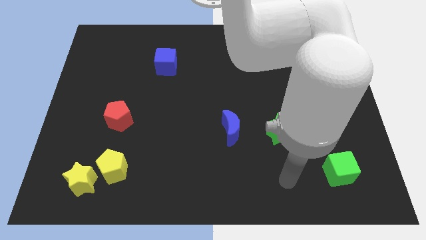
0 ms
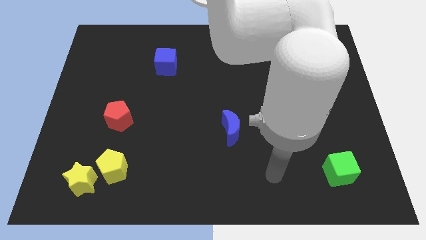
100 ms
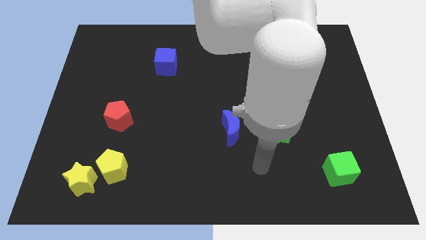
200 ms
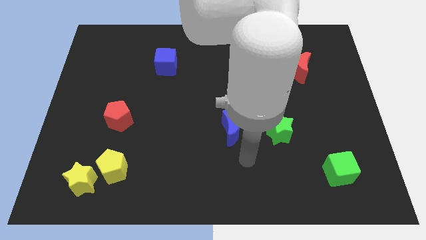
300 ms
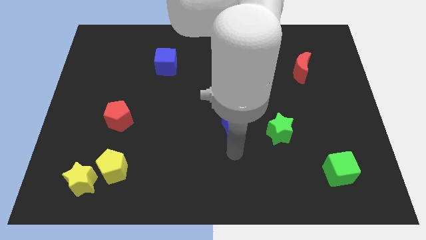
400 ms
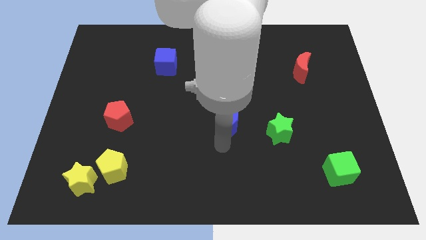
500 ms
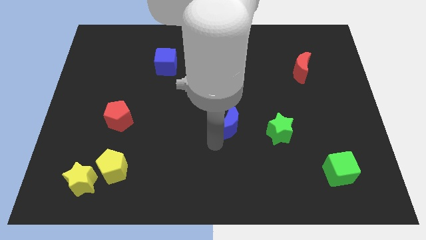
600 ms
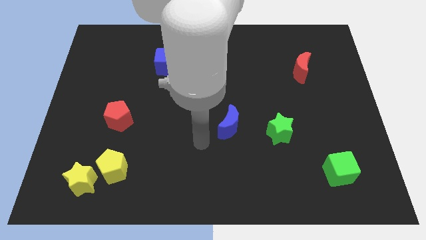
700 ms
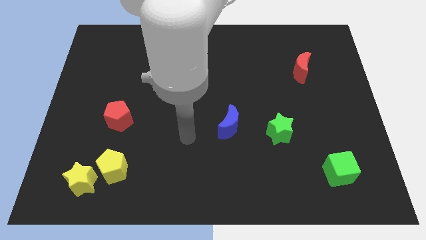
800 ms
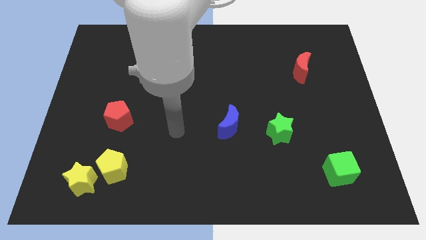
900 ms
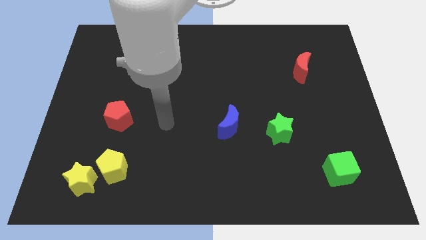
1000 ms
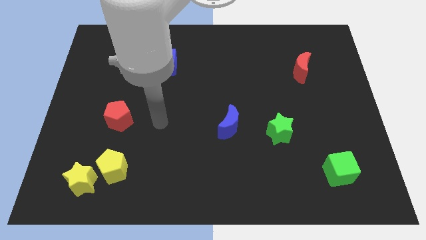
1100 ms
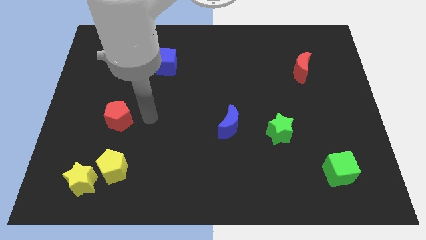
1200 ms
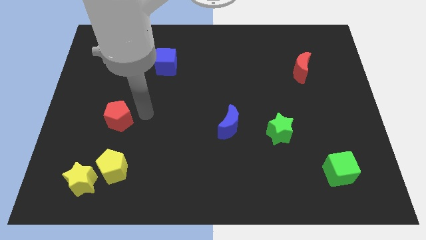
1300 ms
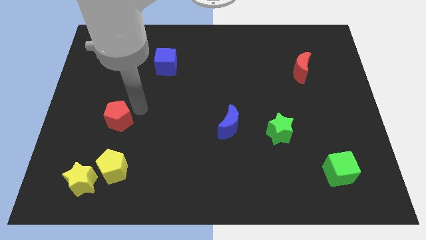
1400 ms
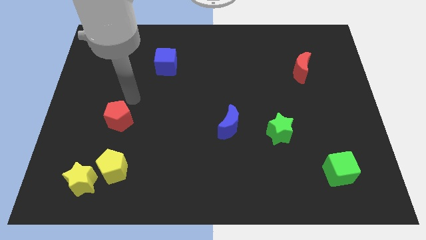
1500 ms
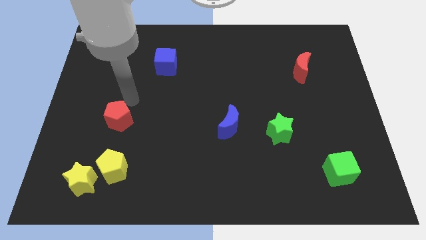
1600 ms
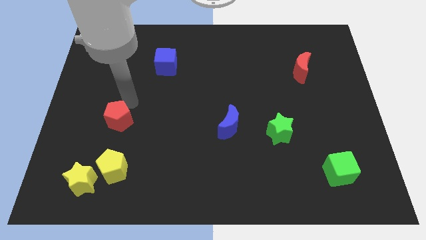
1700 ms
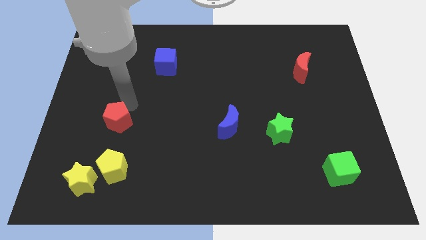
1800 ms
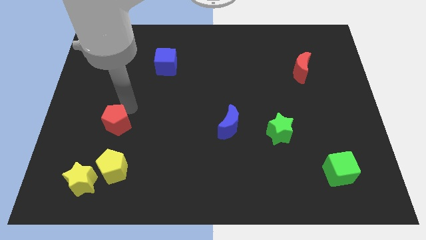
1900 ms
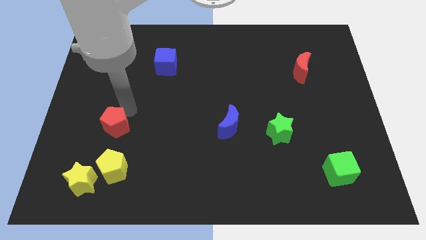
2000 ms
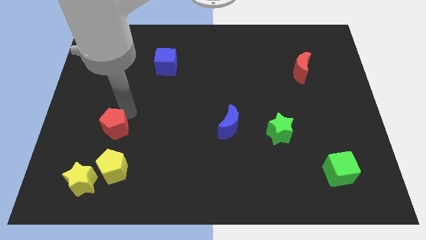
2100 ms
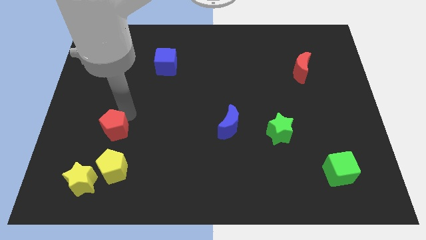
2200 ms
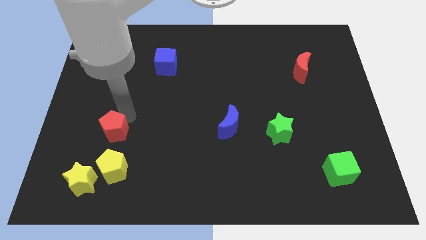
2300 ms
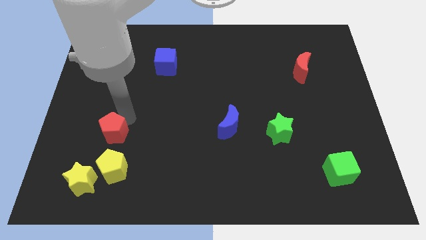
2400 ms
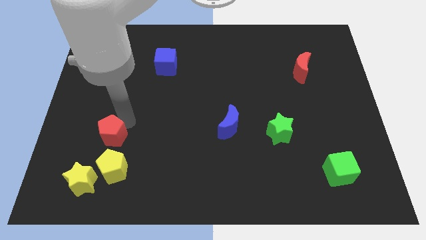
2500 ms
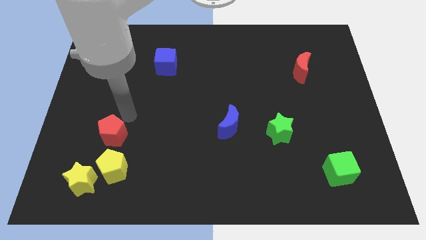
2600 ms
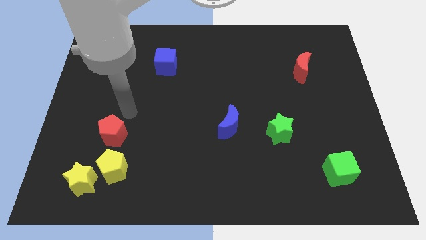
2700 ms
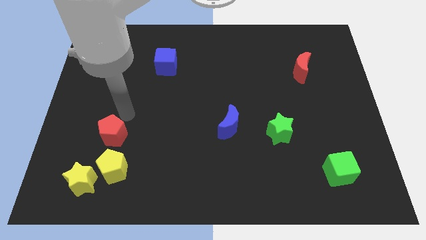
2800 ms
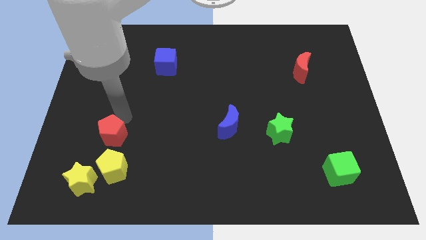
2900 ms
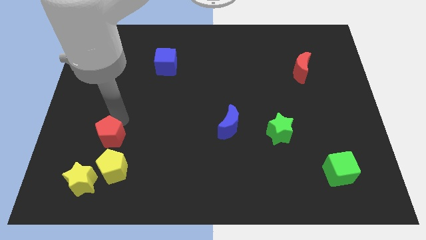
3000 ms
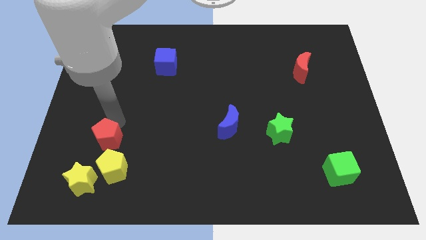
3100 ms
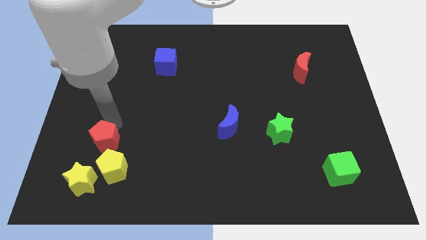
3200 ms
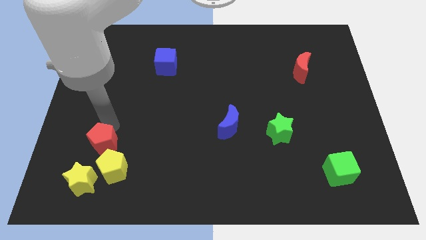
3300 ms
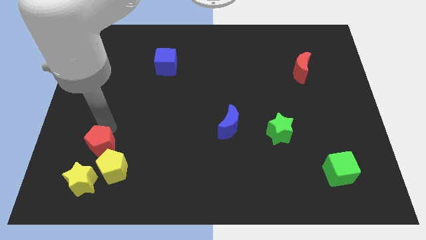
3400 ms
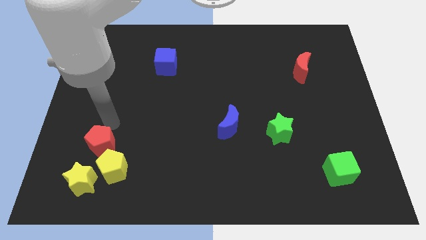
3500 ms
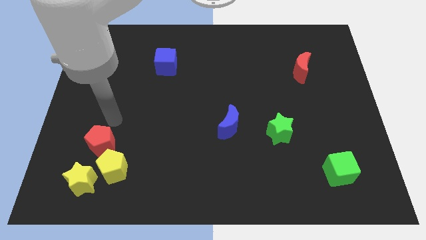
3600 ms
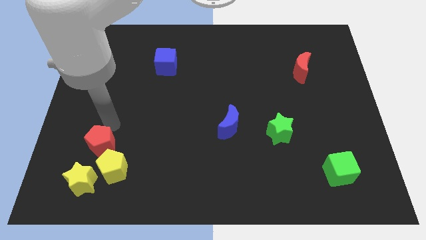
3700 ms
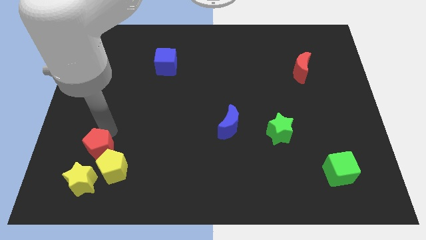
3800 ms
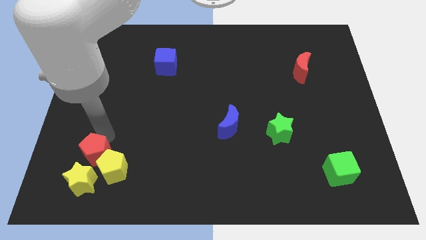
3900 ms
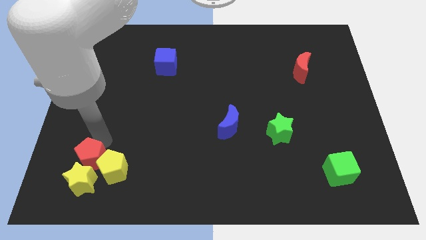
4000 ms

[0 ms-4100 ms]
push the red pentagon to the yellow star

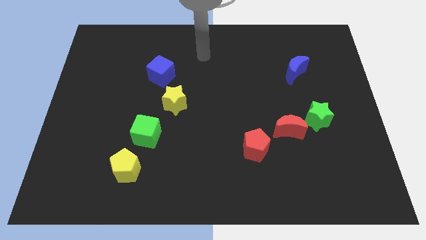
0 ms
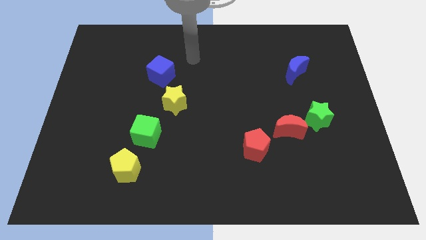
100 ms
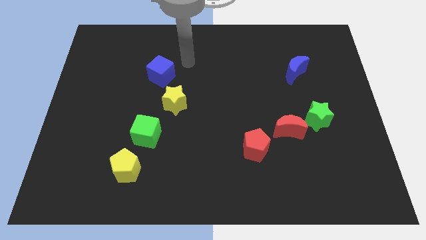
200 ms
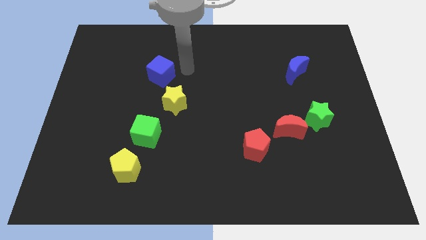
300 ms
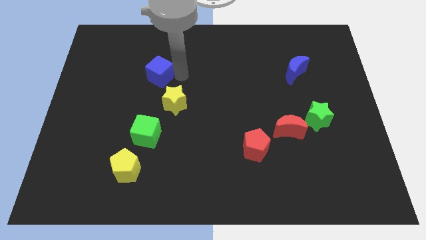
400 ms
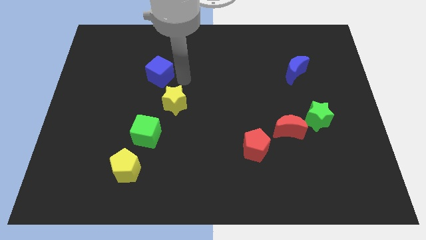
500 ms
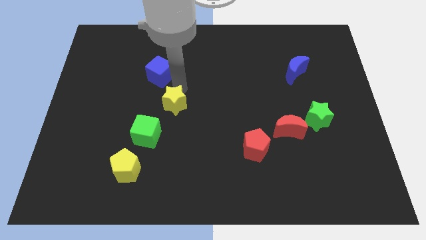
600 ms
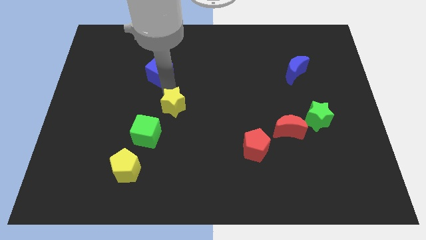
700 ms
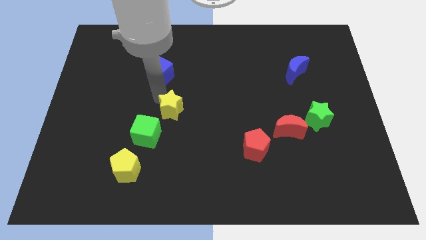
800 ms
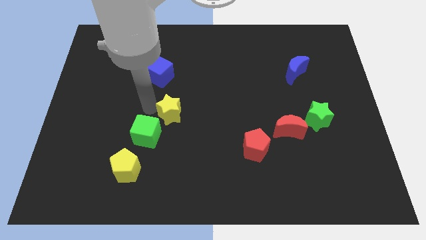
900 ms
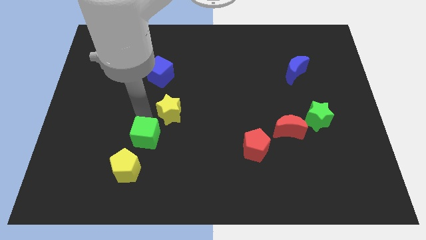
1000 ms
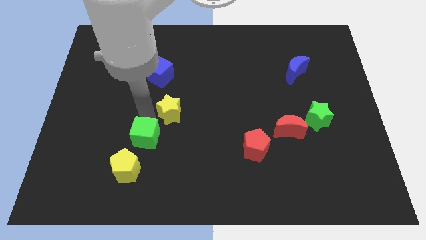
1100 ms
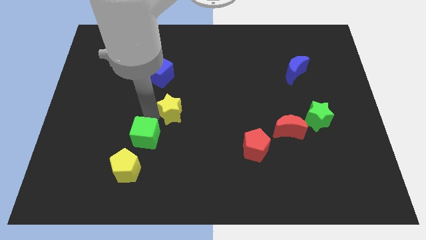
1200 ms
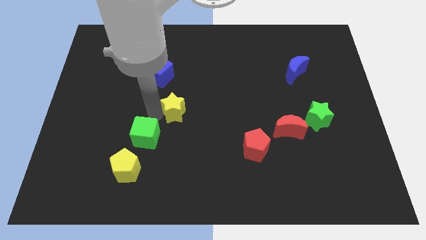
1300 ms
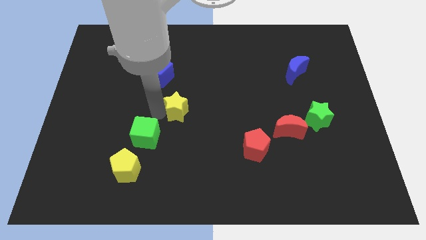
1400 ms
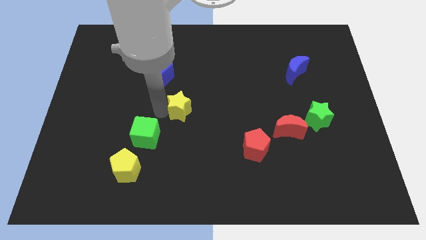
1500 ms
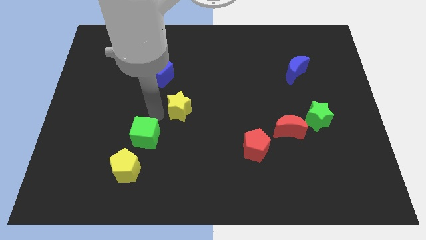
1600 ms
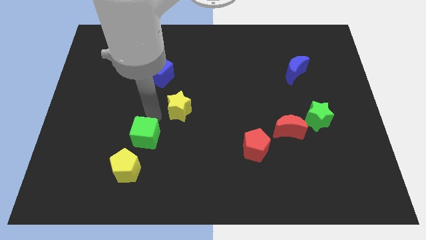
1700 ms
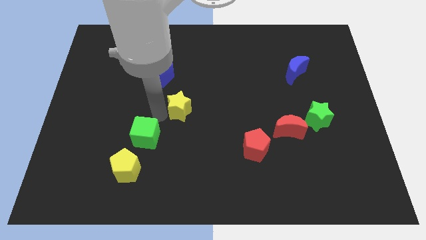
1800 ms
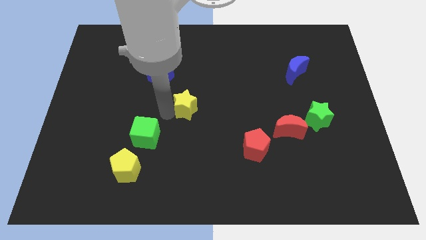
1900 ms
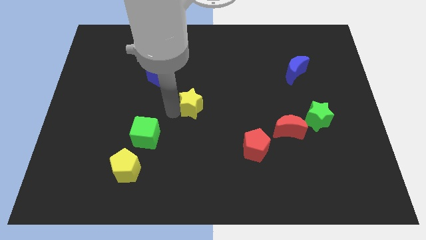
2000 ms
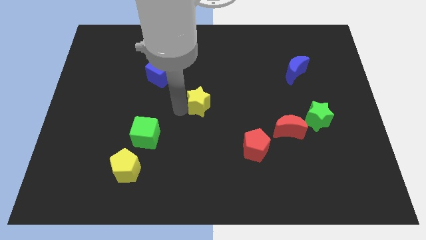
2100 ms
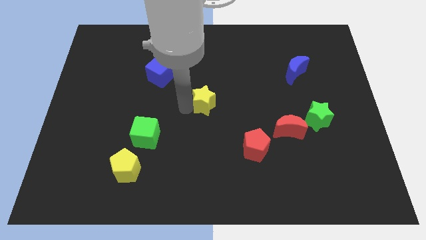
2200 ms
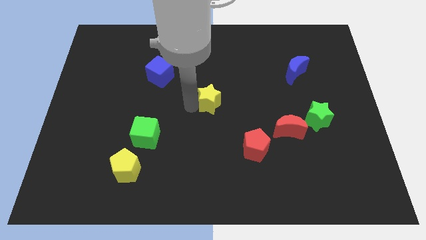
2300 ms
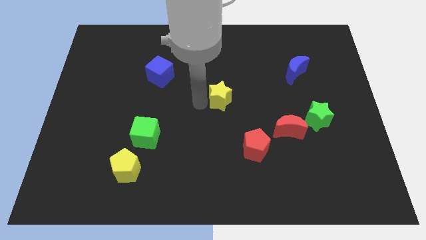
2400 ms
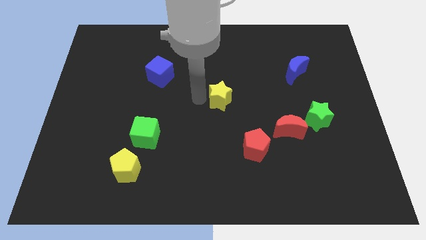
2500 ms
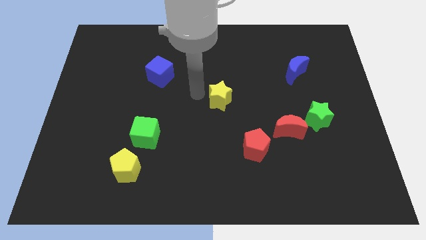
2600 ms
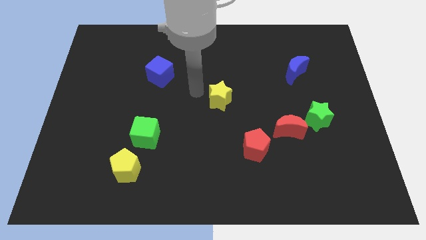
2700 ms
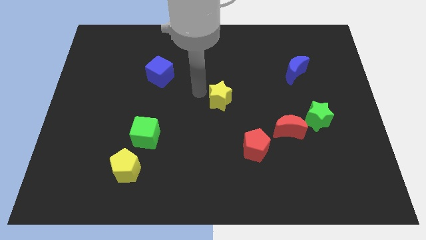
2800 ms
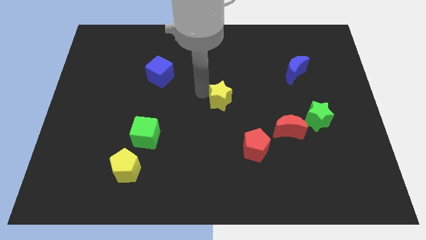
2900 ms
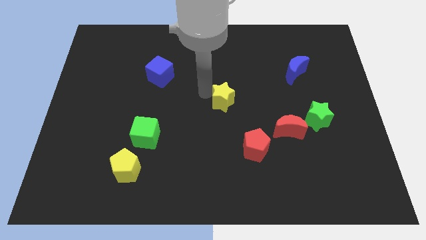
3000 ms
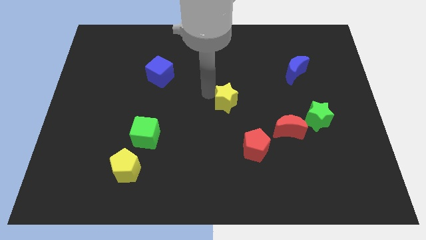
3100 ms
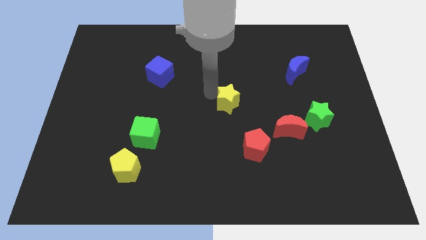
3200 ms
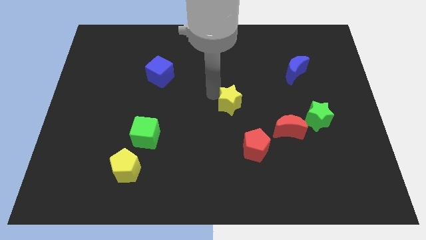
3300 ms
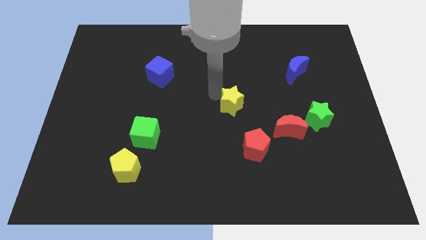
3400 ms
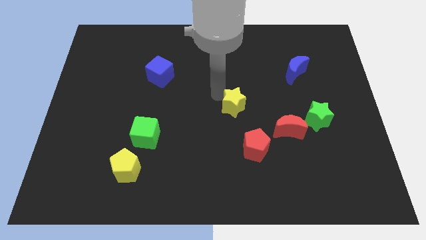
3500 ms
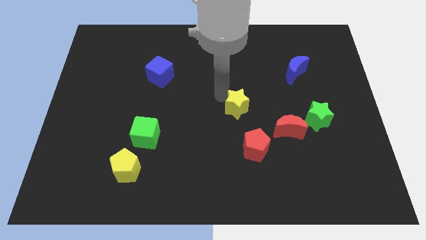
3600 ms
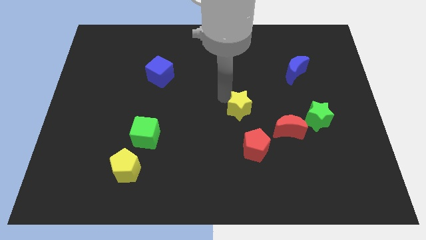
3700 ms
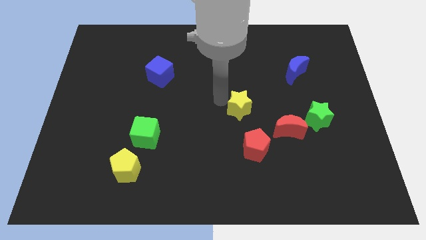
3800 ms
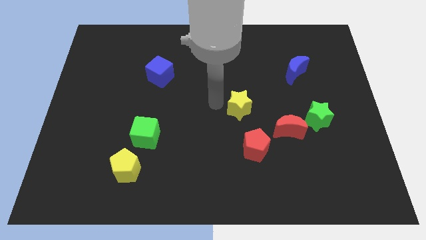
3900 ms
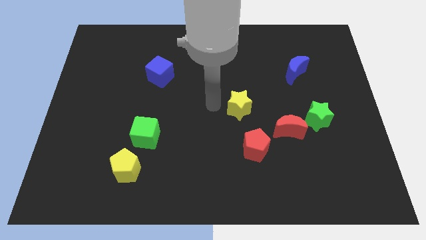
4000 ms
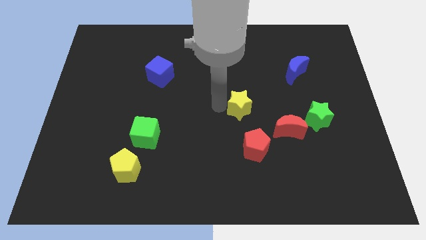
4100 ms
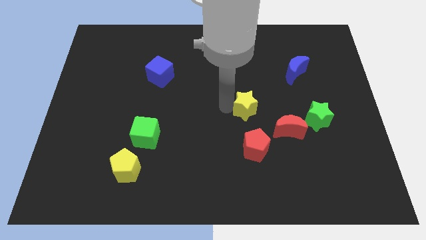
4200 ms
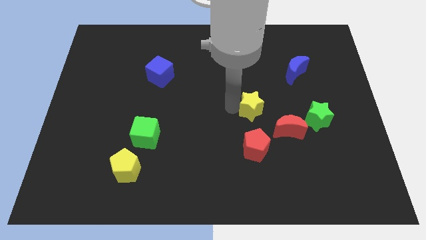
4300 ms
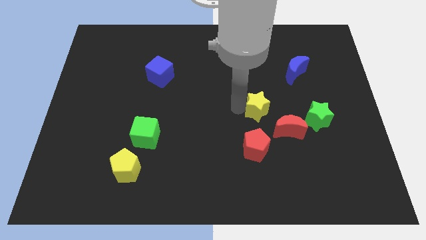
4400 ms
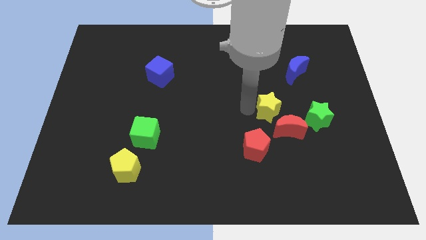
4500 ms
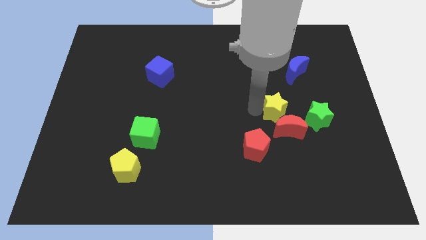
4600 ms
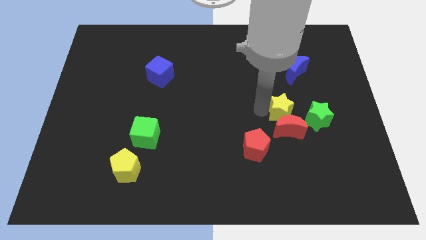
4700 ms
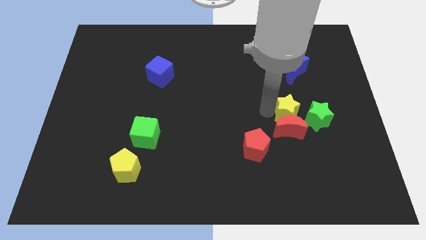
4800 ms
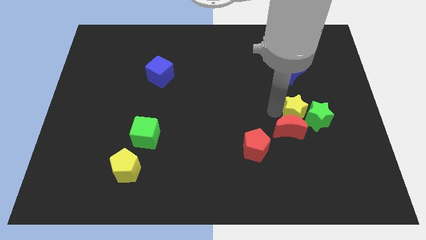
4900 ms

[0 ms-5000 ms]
put the yellow star next to the green star
